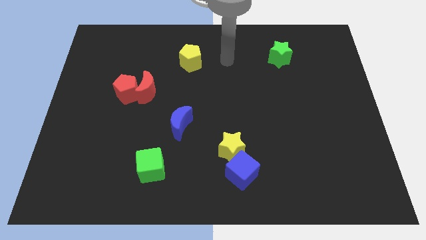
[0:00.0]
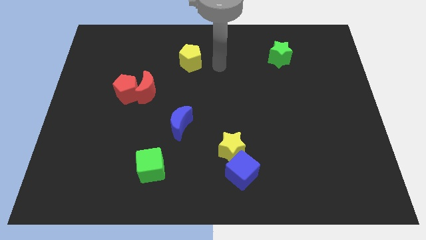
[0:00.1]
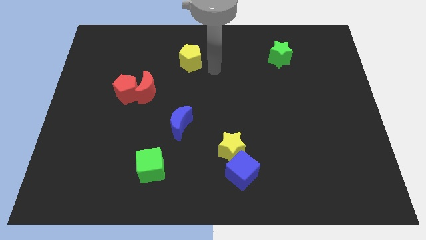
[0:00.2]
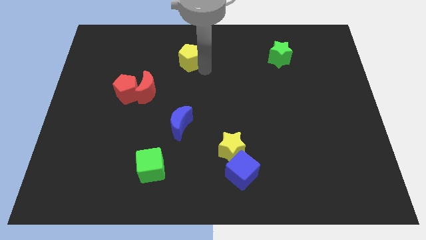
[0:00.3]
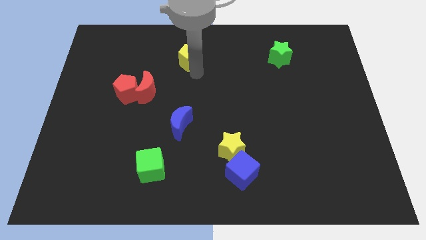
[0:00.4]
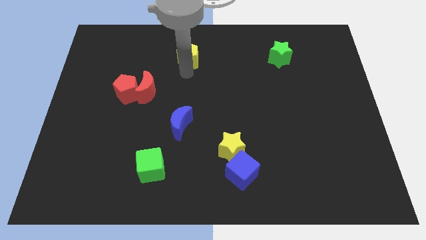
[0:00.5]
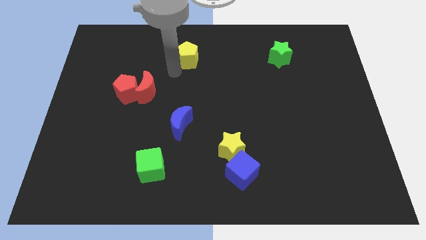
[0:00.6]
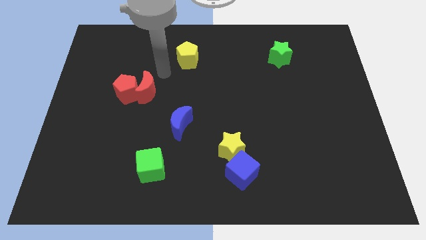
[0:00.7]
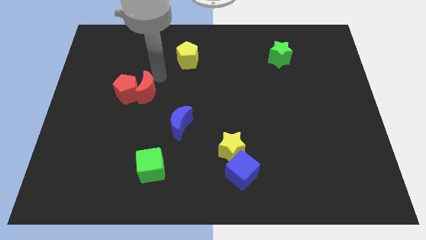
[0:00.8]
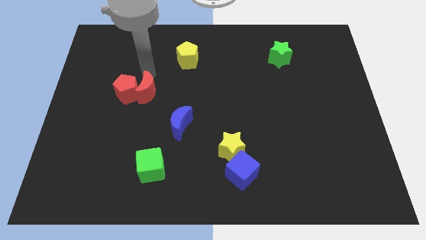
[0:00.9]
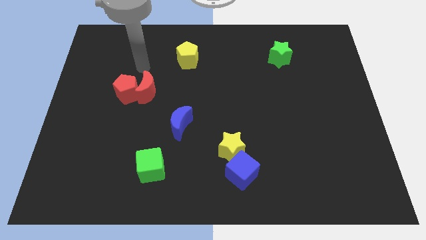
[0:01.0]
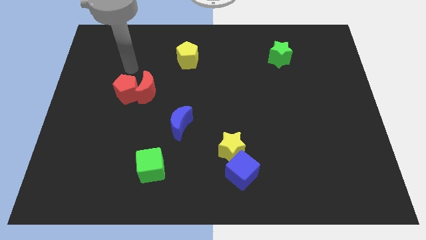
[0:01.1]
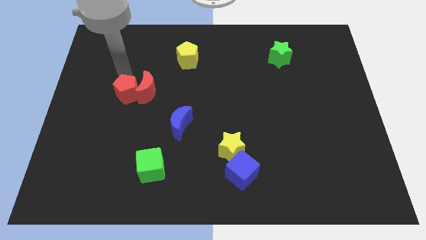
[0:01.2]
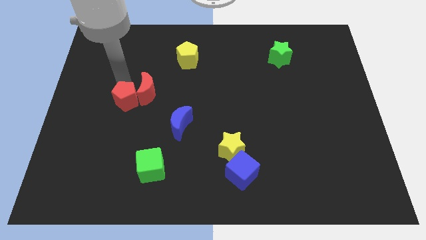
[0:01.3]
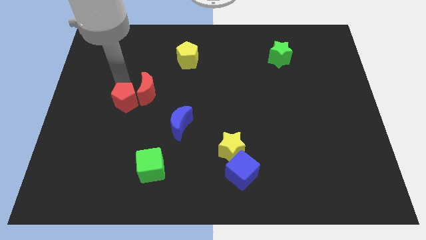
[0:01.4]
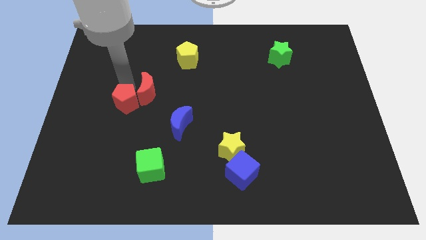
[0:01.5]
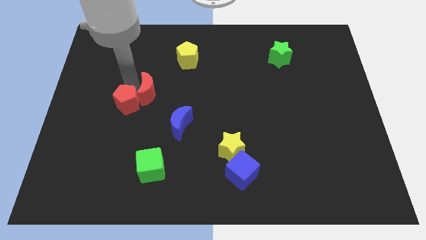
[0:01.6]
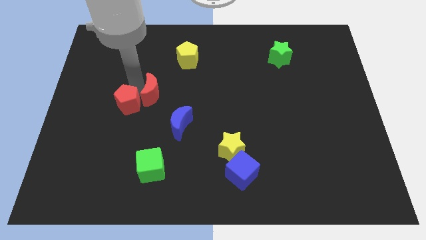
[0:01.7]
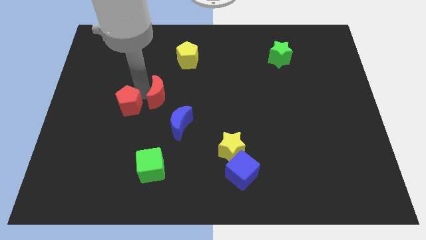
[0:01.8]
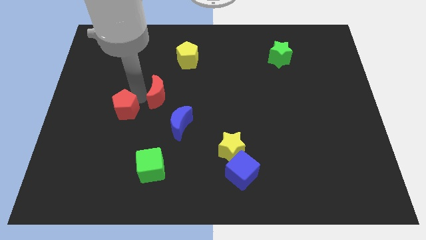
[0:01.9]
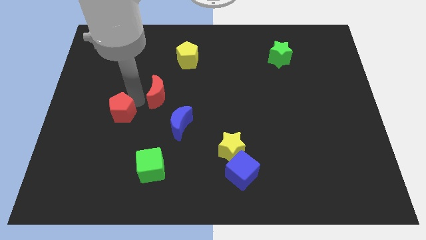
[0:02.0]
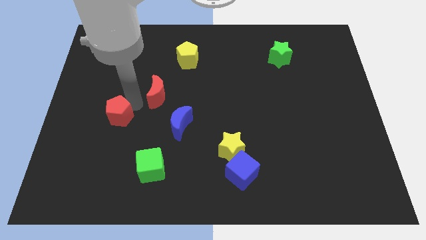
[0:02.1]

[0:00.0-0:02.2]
separate the red moon from the red pentagon

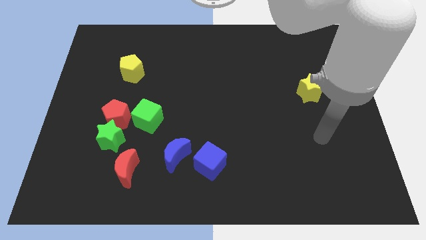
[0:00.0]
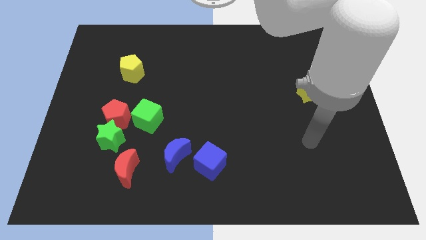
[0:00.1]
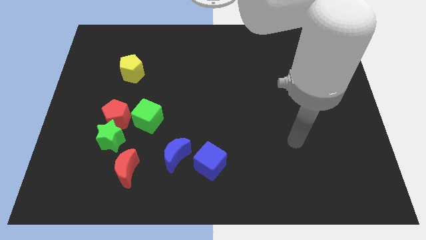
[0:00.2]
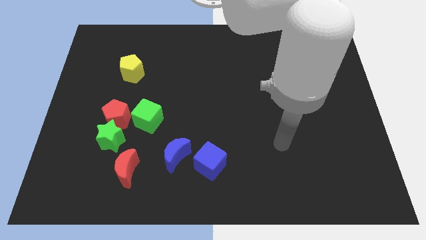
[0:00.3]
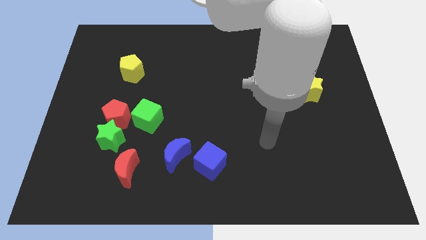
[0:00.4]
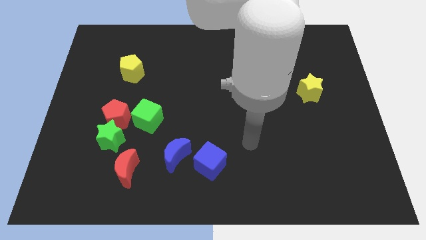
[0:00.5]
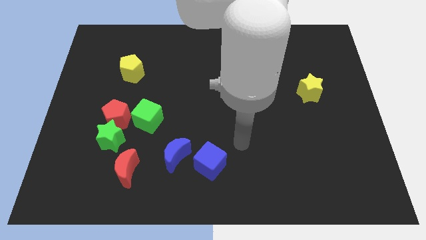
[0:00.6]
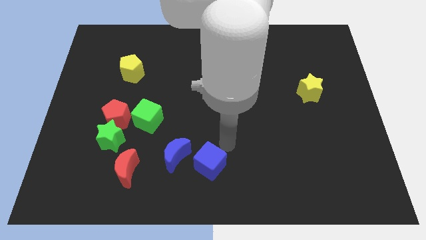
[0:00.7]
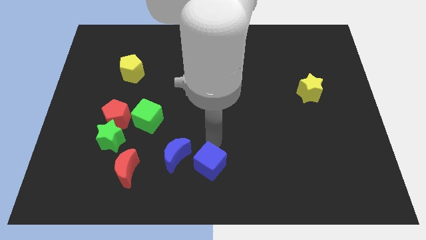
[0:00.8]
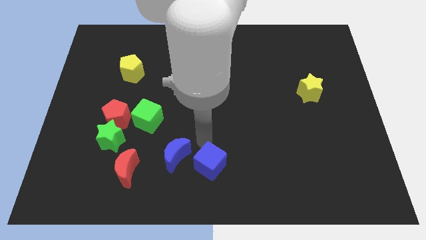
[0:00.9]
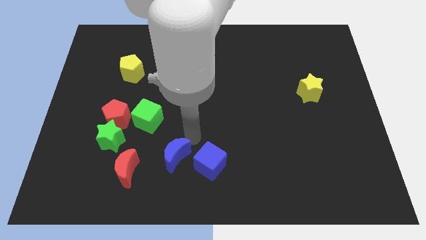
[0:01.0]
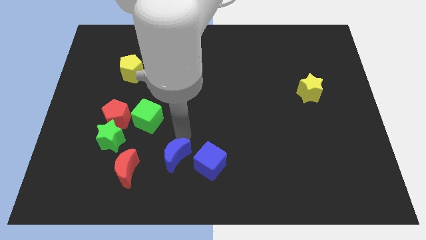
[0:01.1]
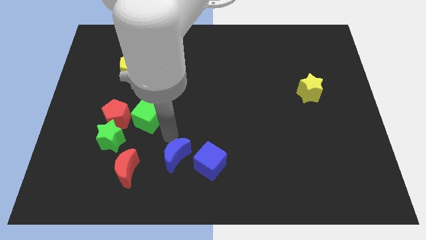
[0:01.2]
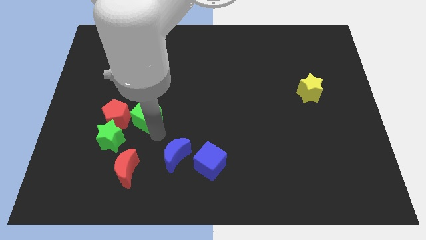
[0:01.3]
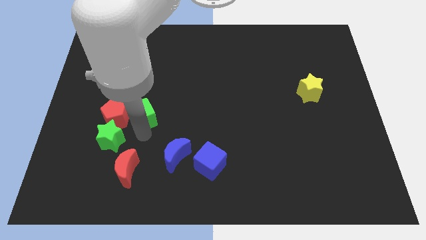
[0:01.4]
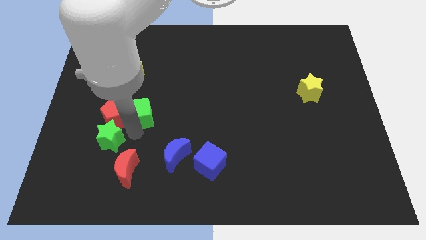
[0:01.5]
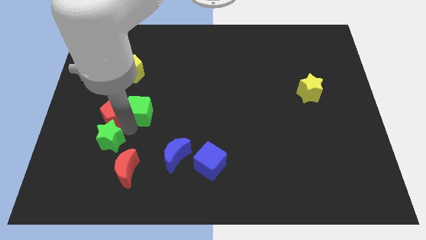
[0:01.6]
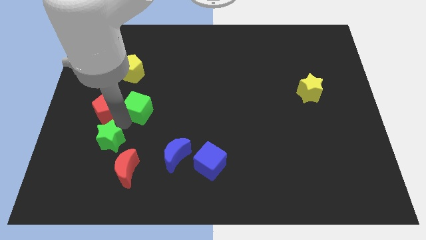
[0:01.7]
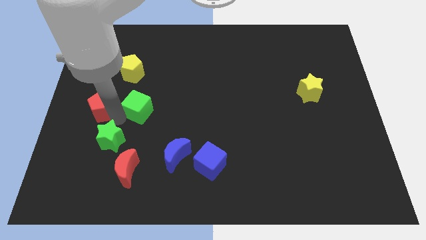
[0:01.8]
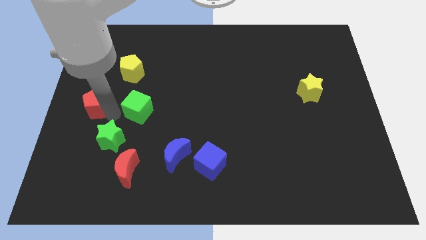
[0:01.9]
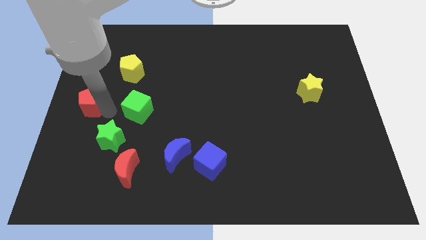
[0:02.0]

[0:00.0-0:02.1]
pull the red pentagon apart from the green star and green cube

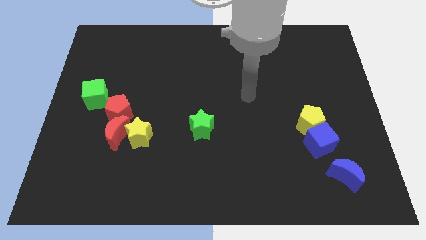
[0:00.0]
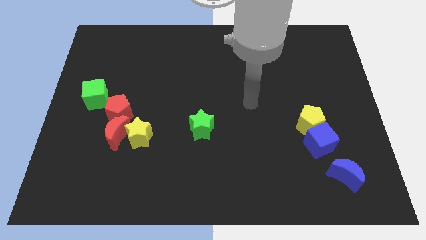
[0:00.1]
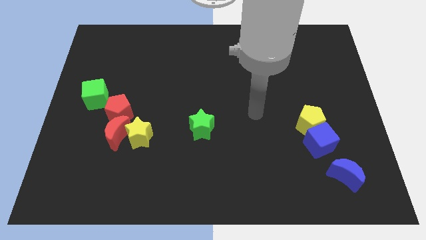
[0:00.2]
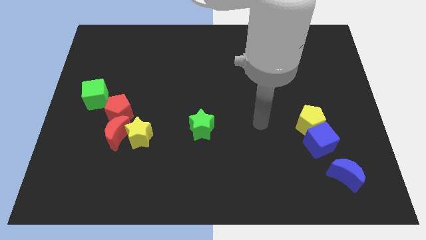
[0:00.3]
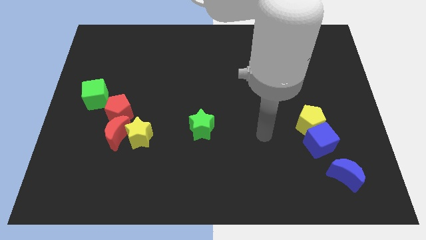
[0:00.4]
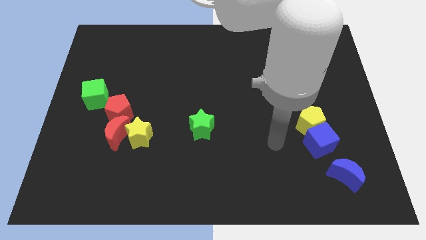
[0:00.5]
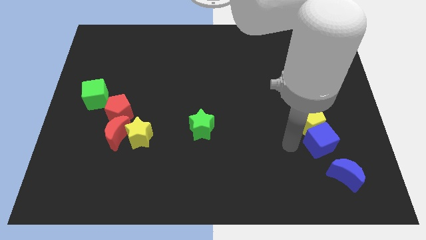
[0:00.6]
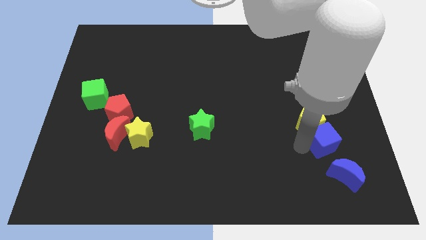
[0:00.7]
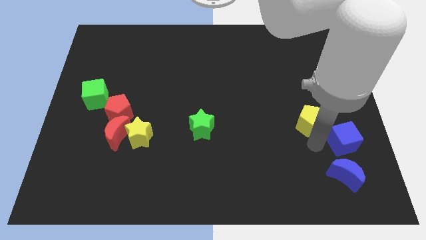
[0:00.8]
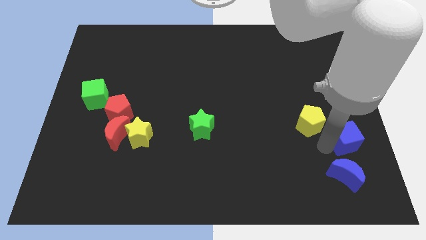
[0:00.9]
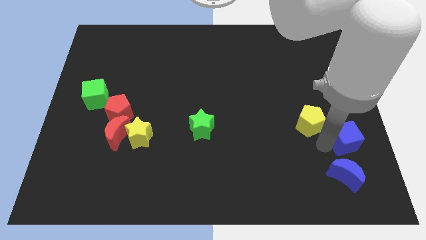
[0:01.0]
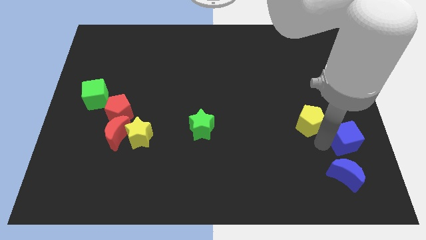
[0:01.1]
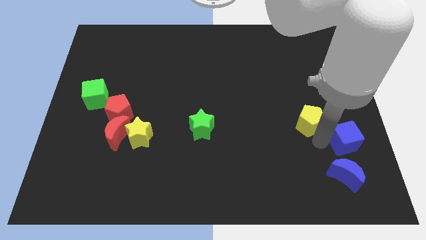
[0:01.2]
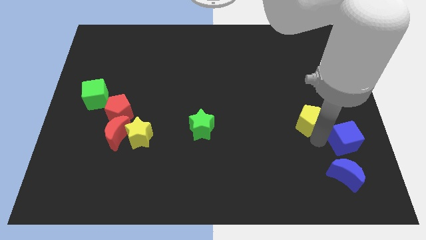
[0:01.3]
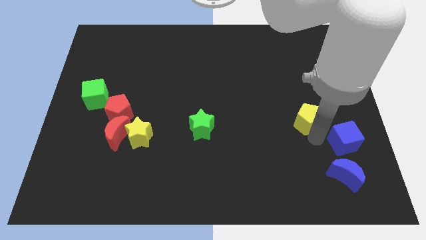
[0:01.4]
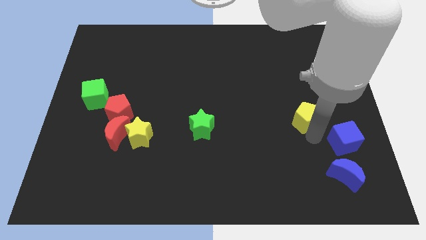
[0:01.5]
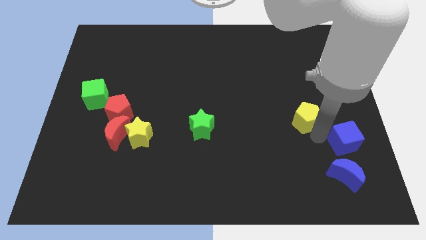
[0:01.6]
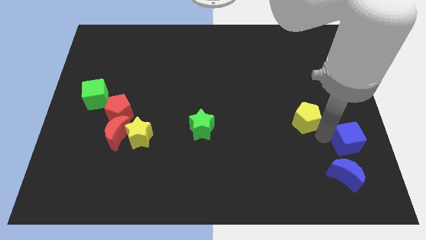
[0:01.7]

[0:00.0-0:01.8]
move the yellow pentagon away from the blue cube

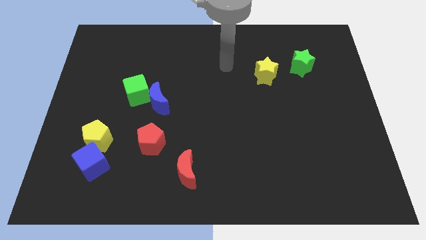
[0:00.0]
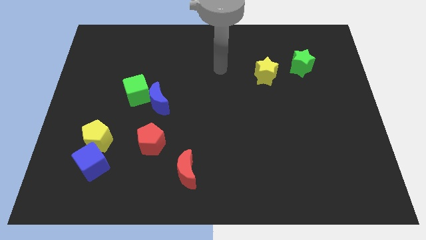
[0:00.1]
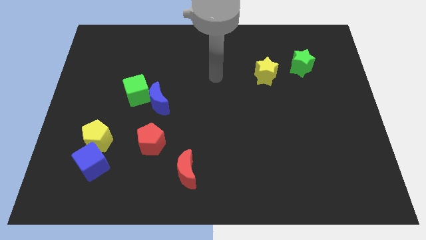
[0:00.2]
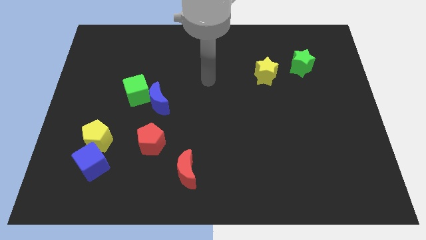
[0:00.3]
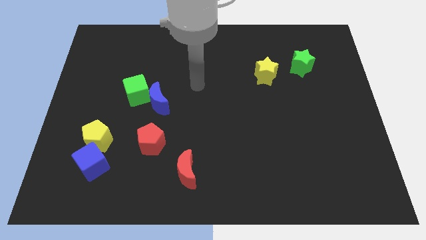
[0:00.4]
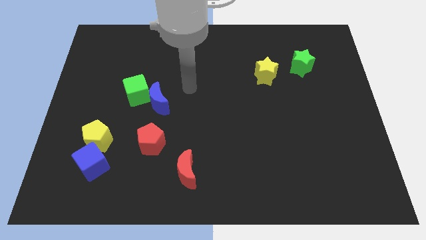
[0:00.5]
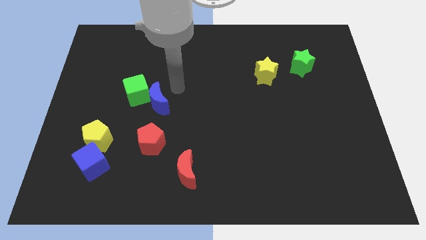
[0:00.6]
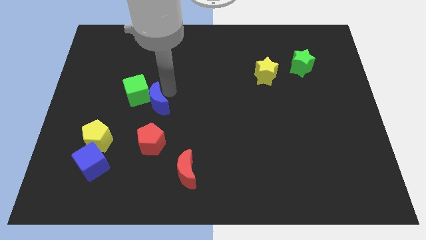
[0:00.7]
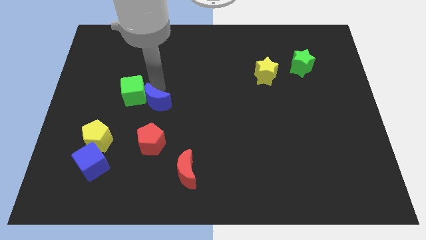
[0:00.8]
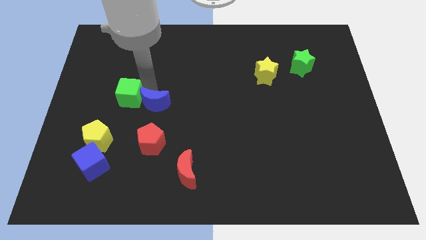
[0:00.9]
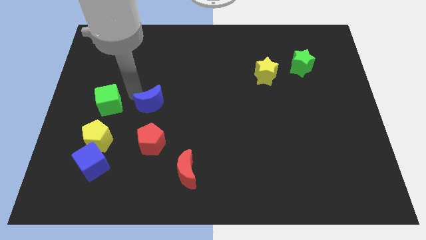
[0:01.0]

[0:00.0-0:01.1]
move the blue moon away from the green cube

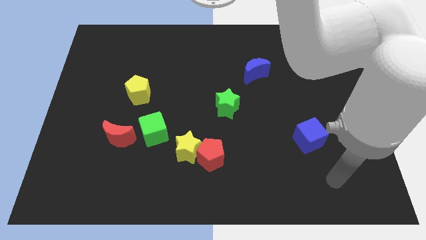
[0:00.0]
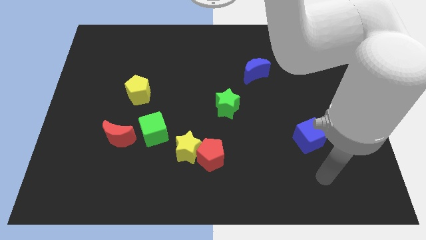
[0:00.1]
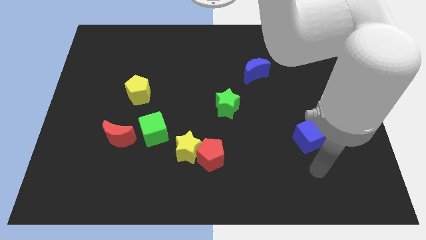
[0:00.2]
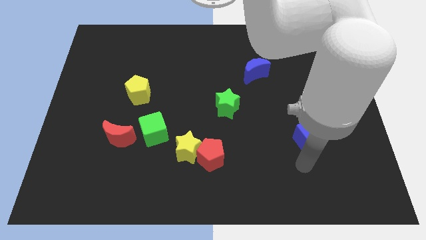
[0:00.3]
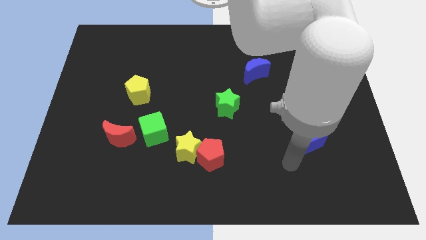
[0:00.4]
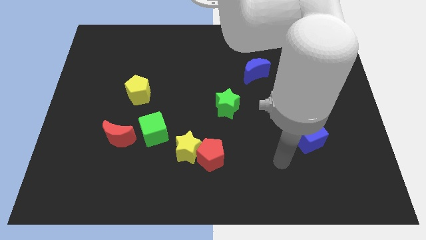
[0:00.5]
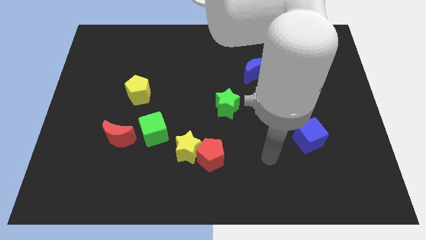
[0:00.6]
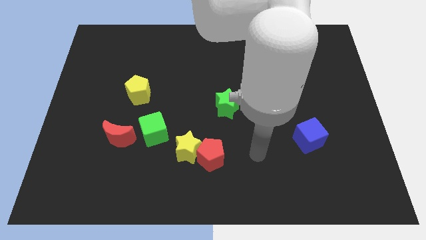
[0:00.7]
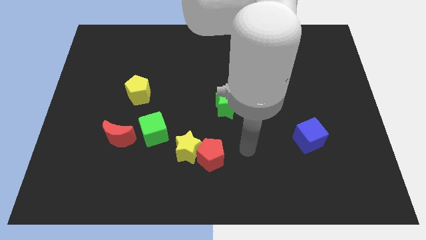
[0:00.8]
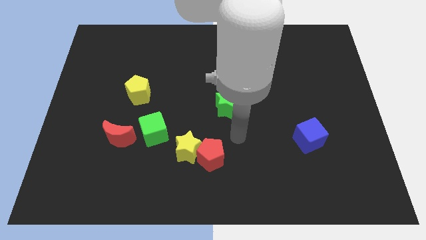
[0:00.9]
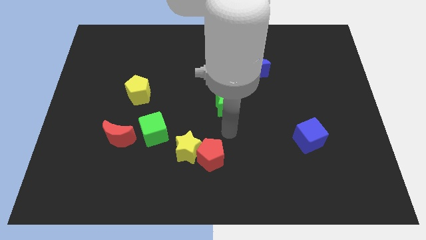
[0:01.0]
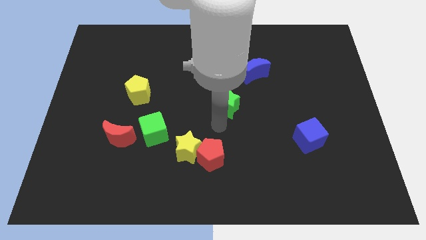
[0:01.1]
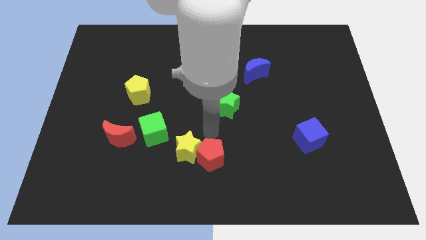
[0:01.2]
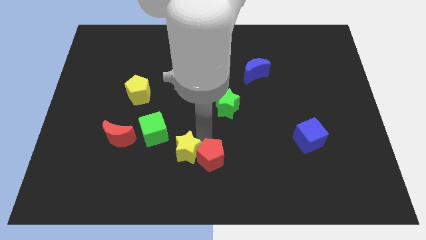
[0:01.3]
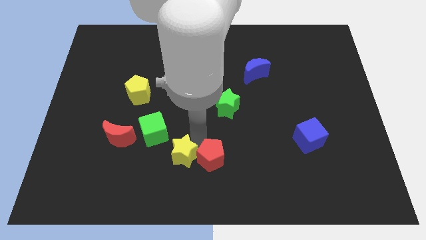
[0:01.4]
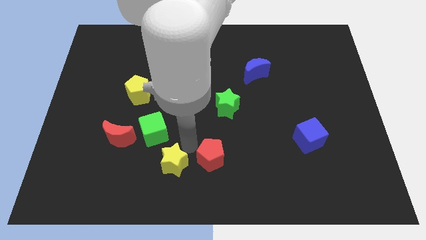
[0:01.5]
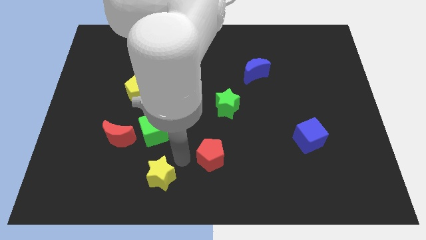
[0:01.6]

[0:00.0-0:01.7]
move the red pentagon away from the yellow star

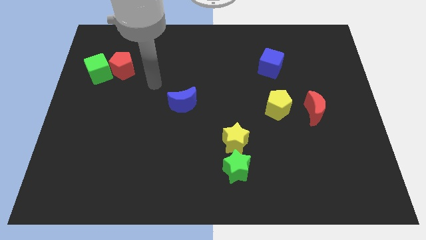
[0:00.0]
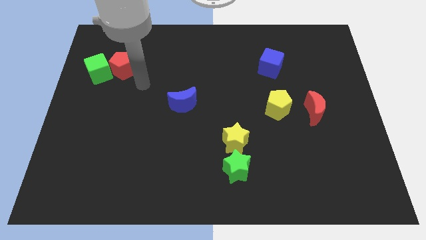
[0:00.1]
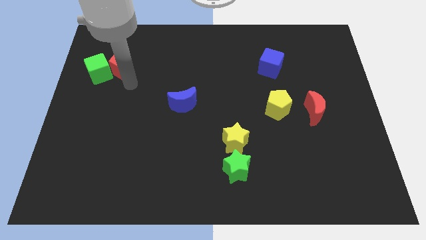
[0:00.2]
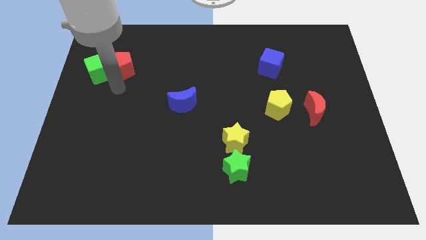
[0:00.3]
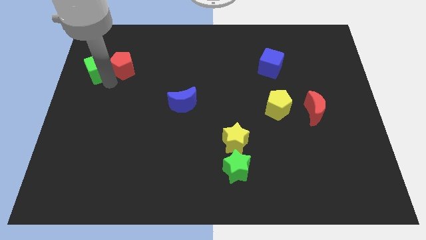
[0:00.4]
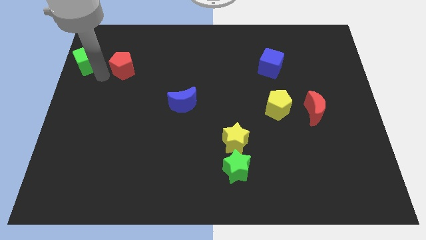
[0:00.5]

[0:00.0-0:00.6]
separate the red pentagon from the green cube

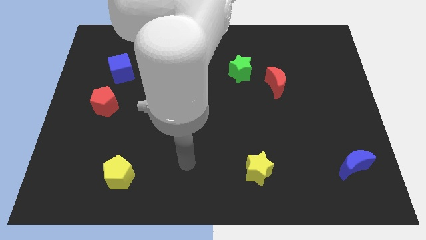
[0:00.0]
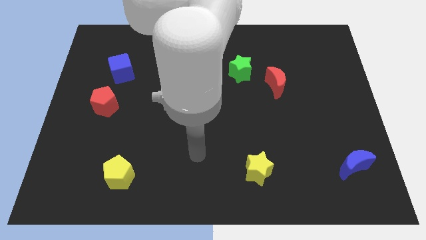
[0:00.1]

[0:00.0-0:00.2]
separate the red moon from the green star
